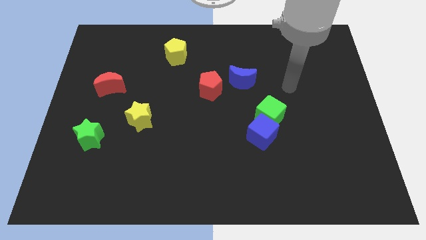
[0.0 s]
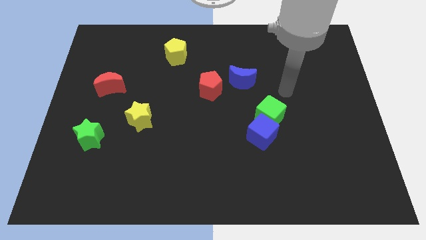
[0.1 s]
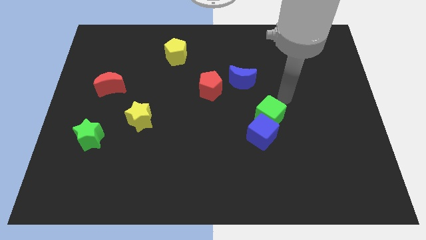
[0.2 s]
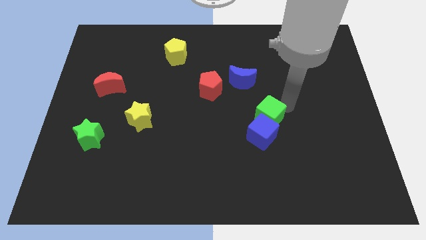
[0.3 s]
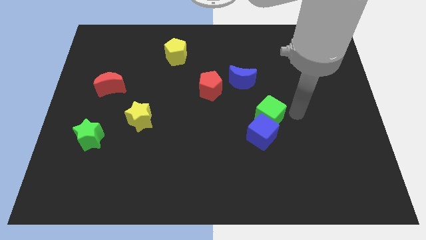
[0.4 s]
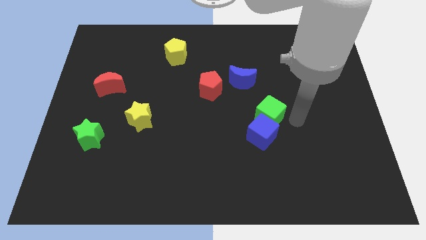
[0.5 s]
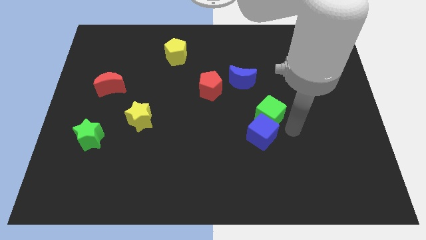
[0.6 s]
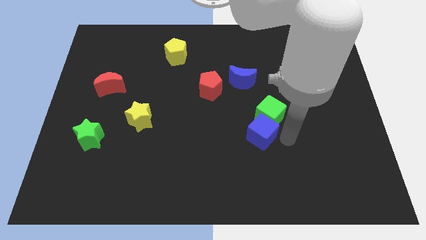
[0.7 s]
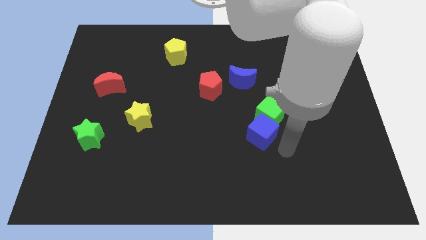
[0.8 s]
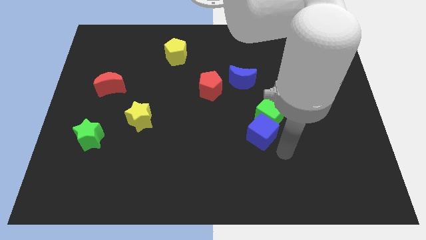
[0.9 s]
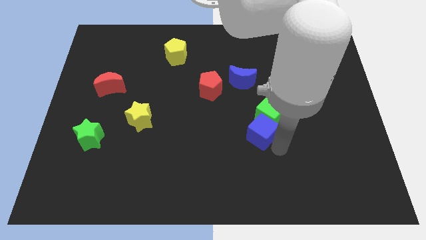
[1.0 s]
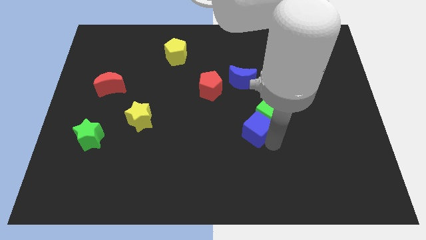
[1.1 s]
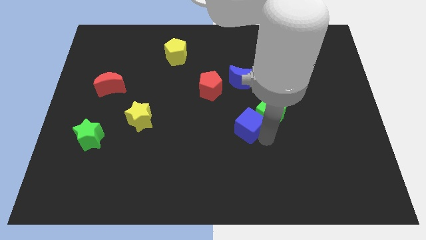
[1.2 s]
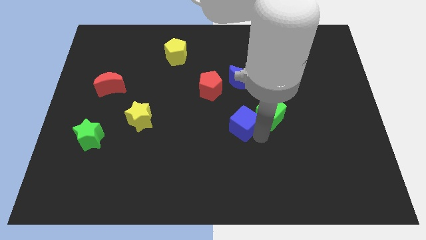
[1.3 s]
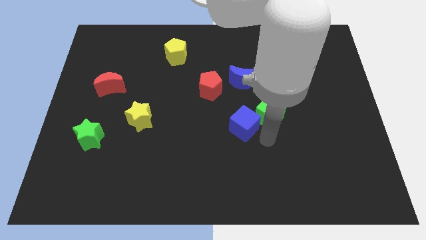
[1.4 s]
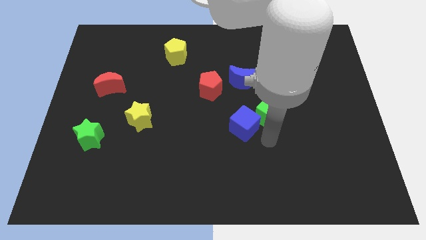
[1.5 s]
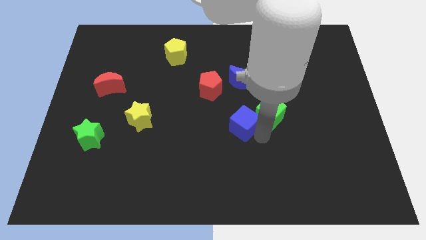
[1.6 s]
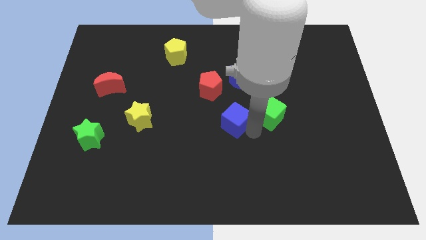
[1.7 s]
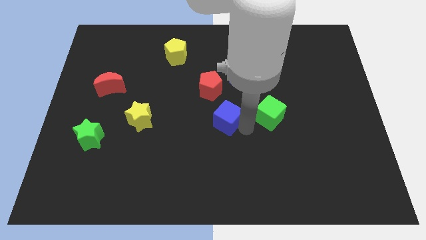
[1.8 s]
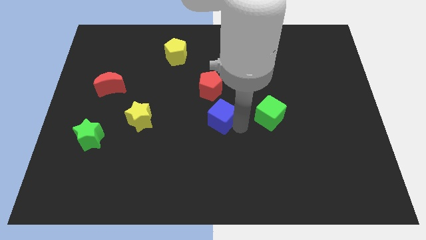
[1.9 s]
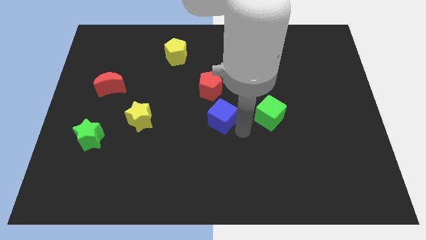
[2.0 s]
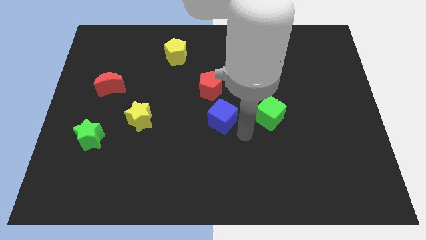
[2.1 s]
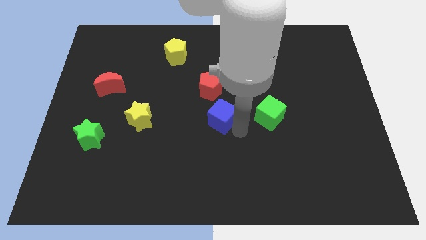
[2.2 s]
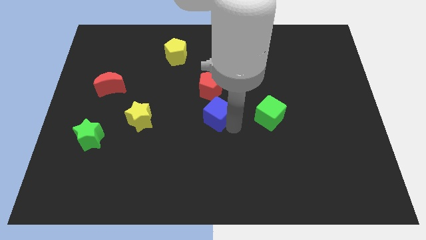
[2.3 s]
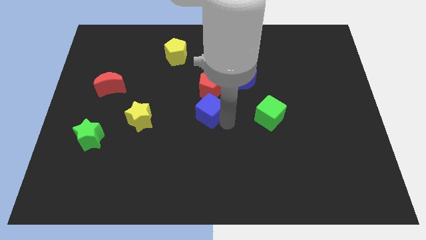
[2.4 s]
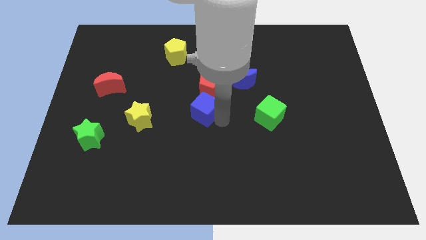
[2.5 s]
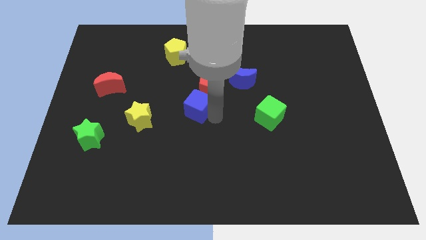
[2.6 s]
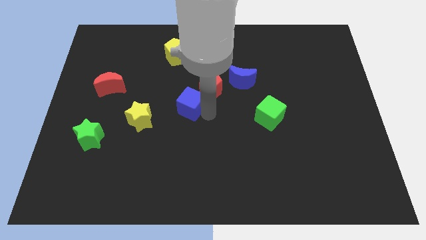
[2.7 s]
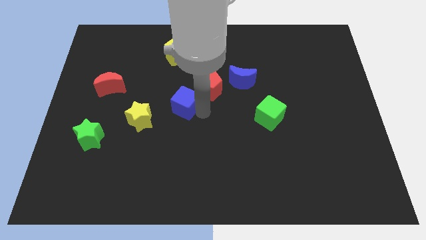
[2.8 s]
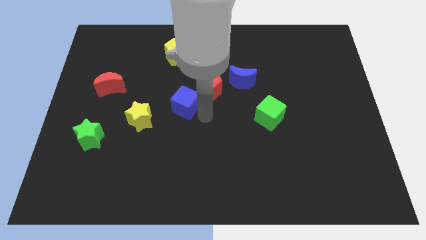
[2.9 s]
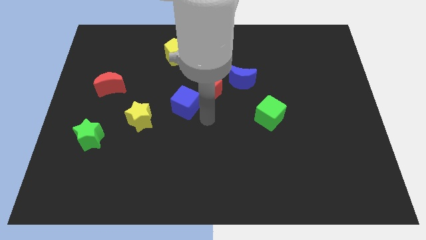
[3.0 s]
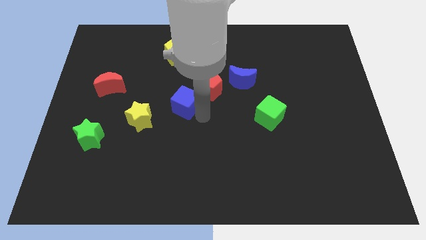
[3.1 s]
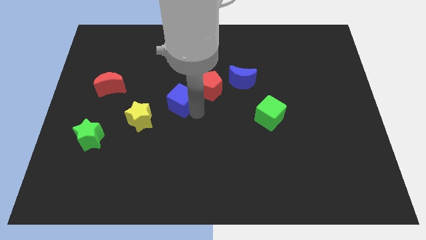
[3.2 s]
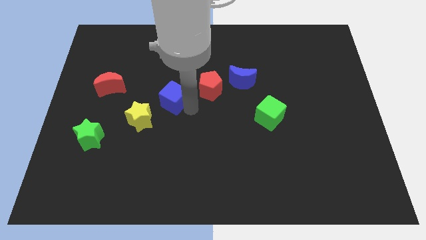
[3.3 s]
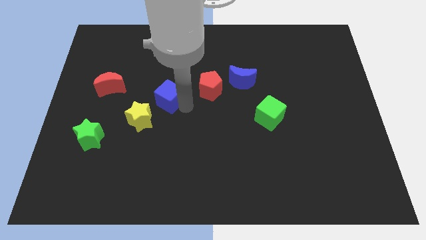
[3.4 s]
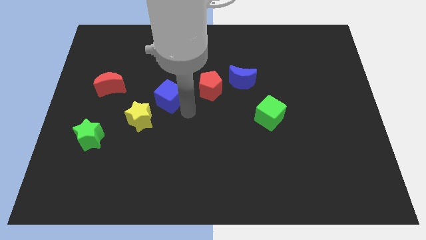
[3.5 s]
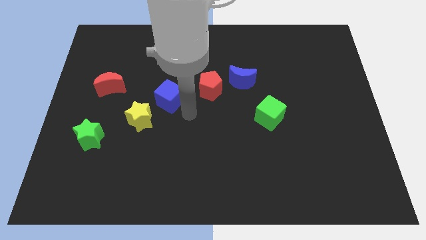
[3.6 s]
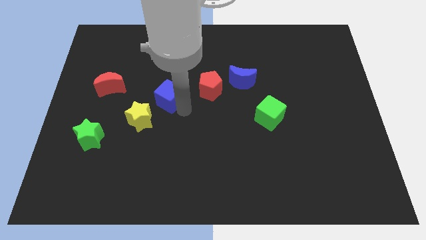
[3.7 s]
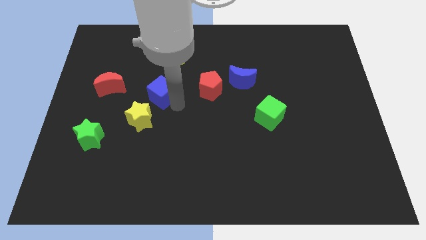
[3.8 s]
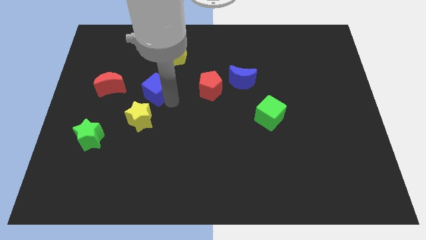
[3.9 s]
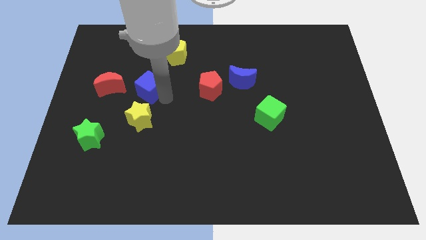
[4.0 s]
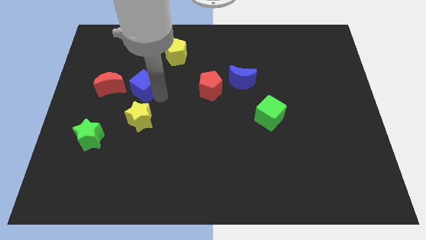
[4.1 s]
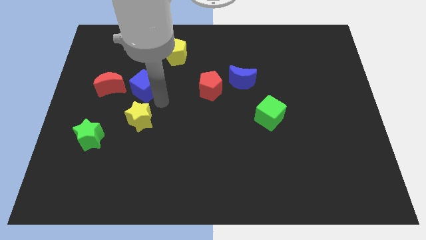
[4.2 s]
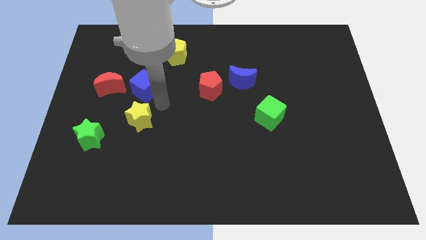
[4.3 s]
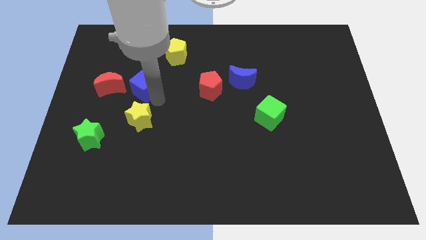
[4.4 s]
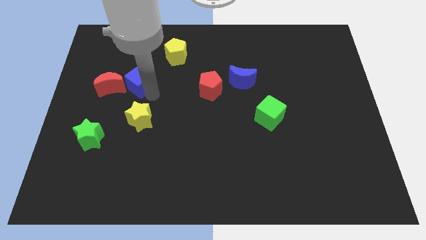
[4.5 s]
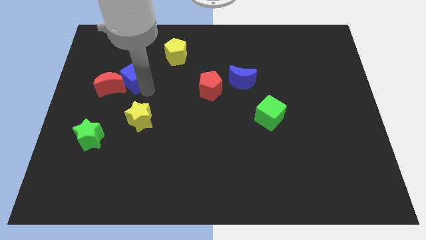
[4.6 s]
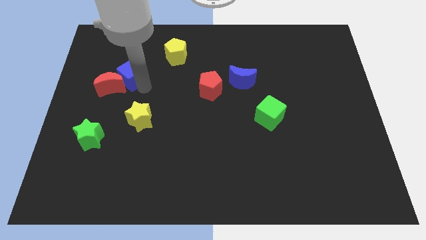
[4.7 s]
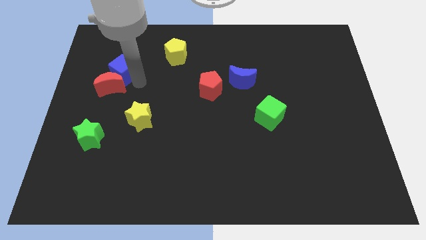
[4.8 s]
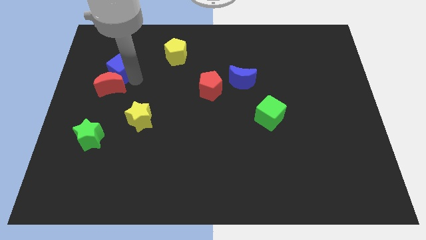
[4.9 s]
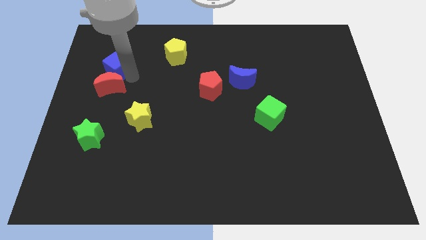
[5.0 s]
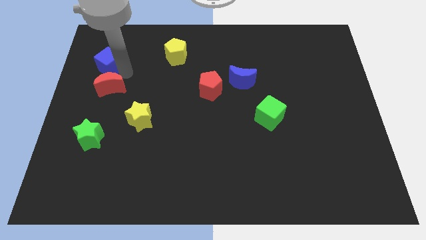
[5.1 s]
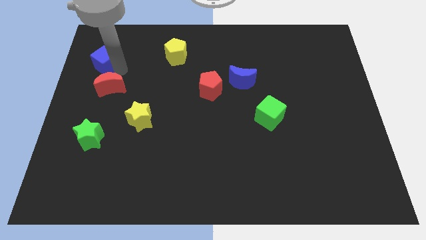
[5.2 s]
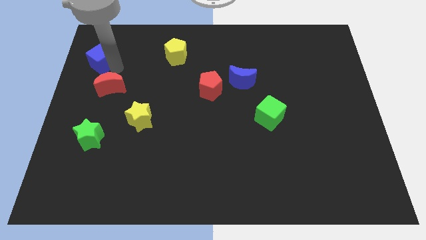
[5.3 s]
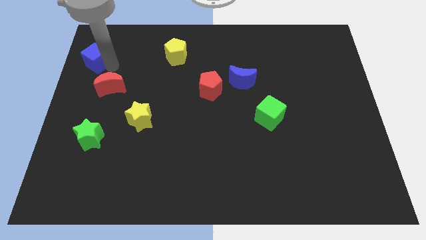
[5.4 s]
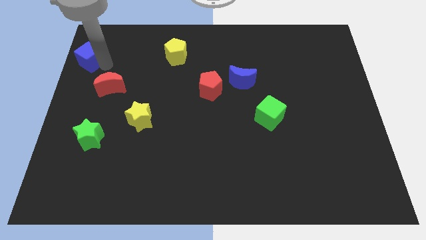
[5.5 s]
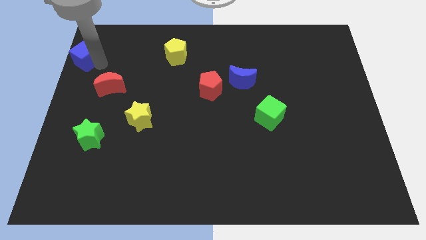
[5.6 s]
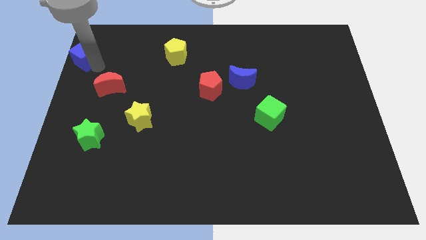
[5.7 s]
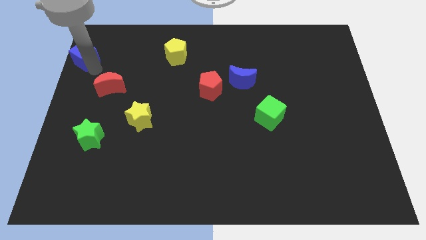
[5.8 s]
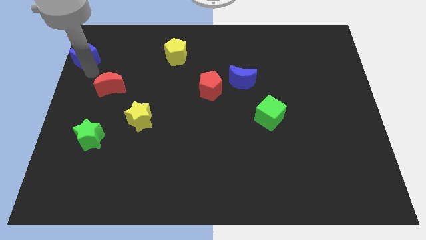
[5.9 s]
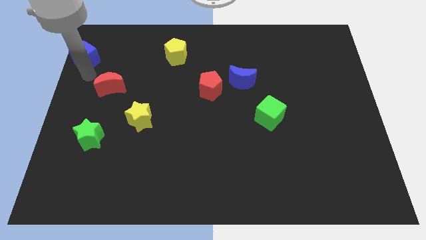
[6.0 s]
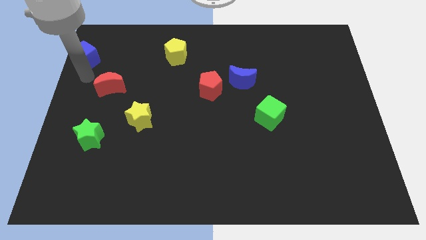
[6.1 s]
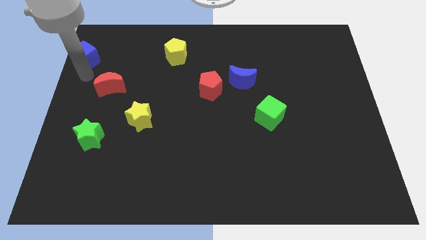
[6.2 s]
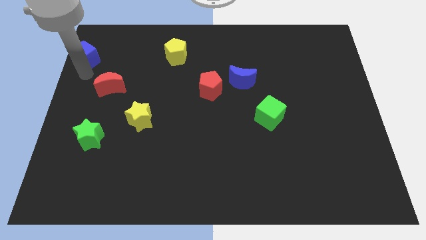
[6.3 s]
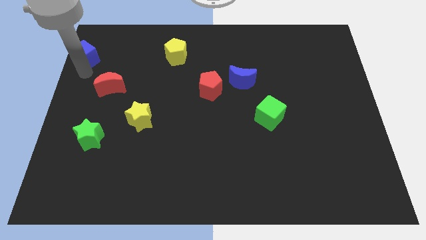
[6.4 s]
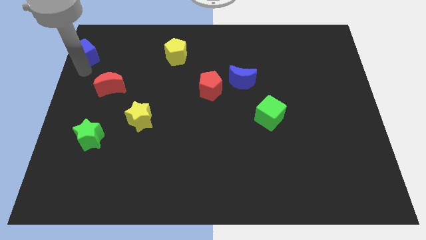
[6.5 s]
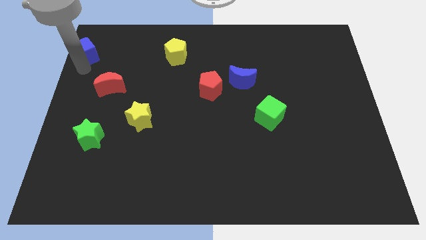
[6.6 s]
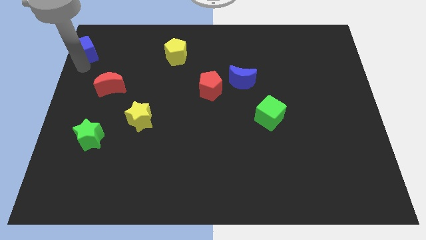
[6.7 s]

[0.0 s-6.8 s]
put the blue cube to the top left corner
